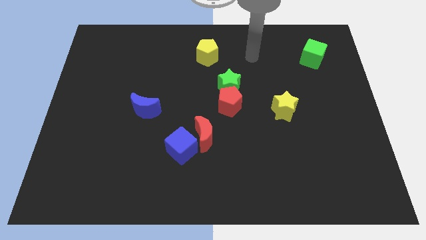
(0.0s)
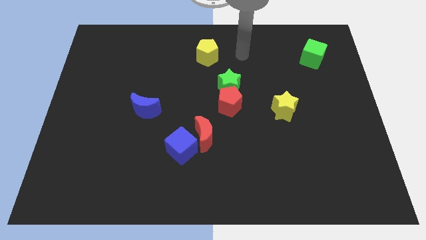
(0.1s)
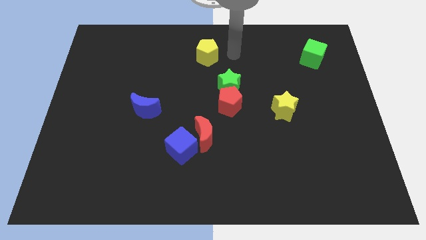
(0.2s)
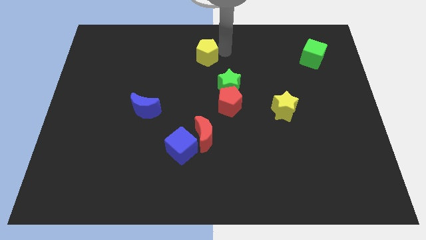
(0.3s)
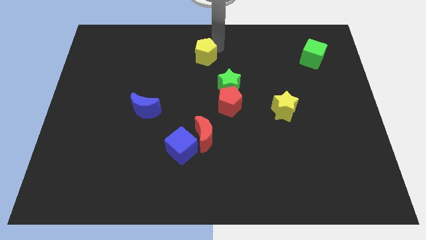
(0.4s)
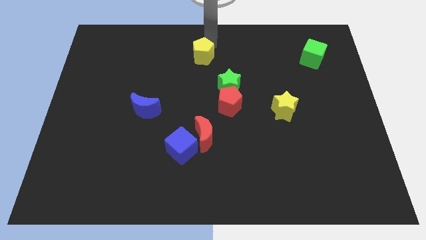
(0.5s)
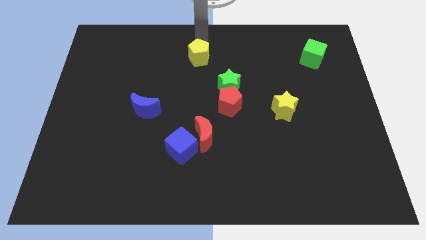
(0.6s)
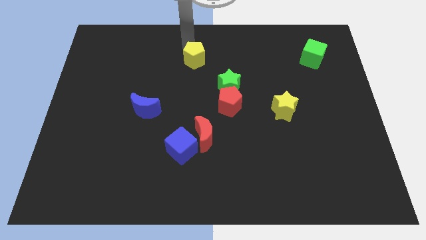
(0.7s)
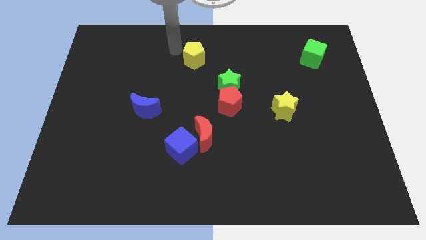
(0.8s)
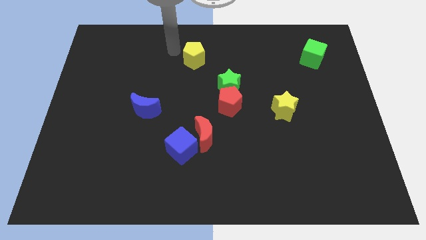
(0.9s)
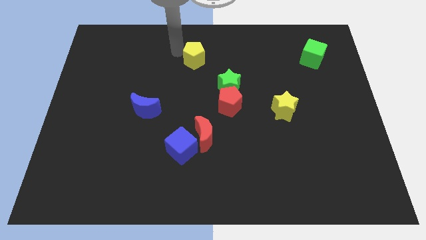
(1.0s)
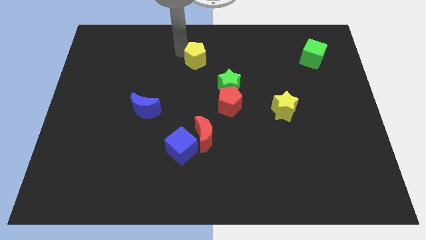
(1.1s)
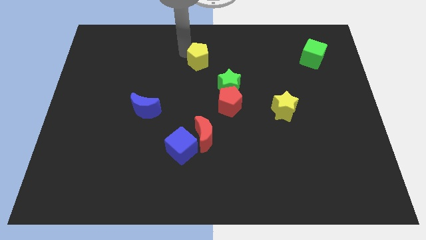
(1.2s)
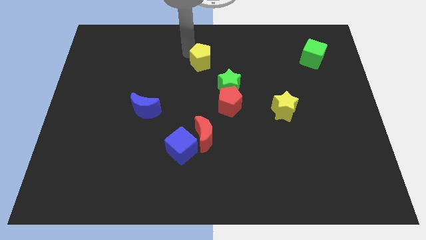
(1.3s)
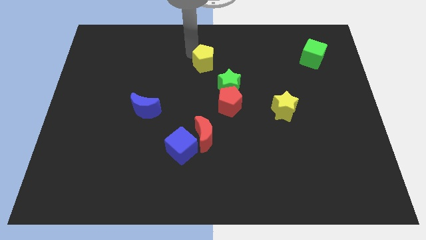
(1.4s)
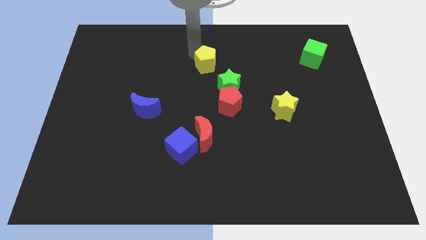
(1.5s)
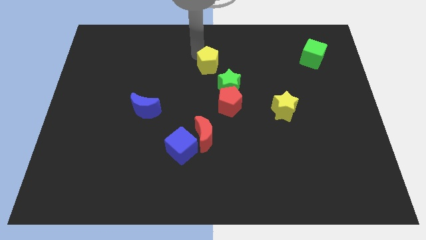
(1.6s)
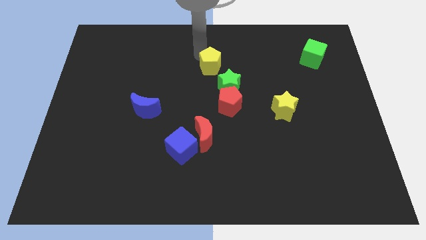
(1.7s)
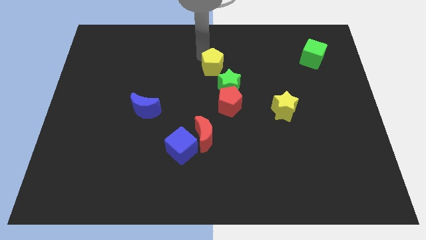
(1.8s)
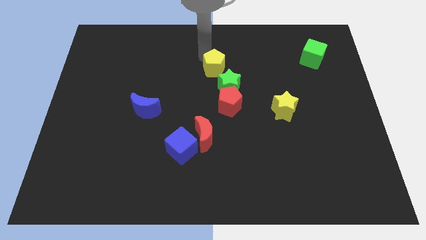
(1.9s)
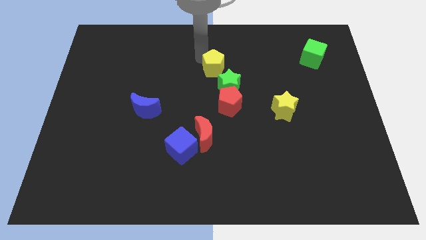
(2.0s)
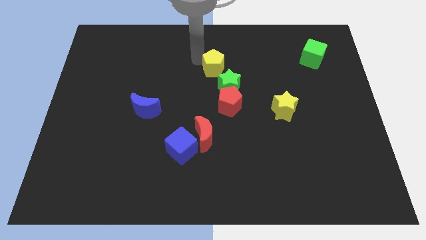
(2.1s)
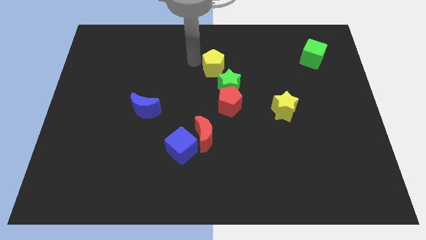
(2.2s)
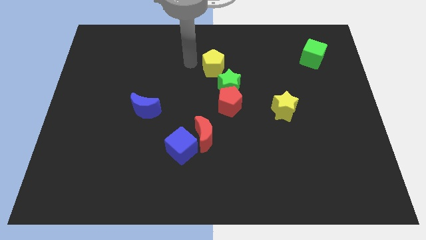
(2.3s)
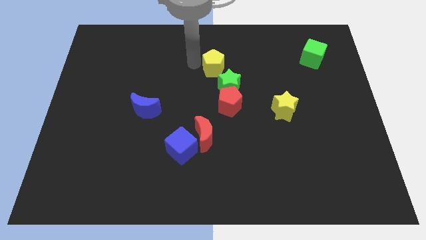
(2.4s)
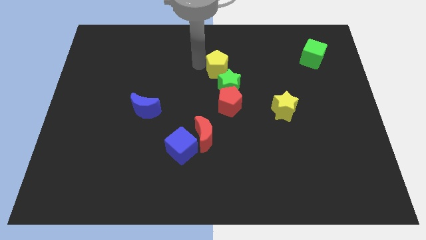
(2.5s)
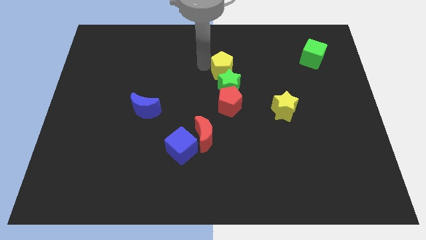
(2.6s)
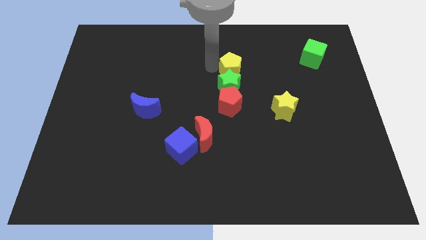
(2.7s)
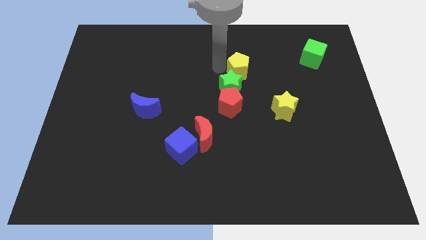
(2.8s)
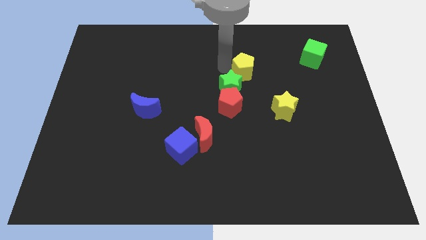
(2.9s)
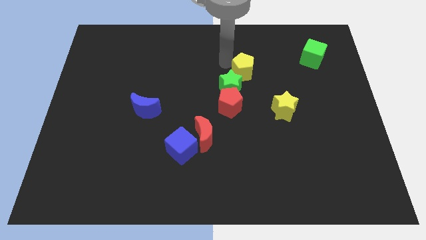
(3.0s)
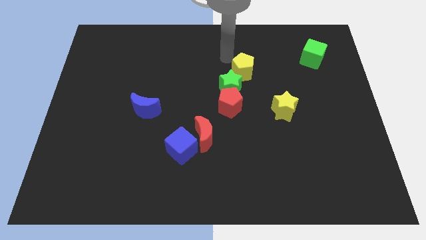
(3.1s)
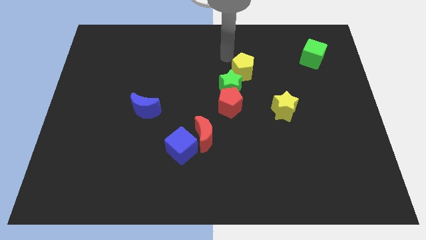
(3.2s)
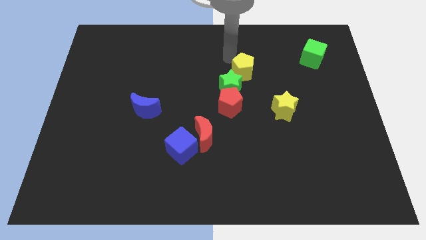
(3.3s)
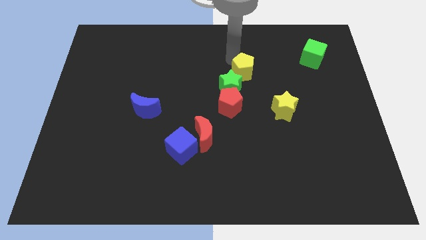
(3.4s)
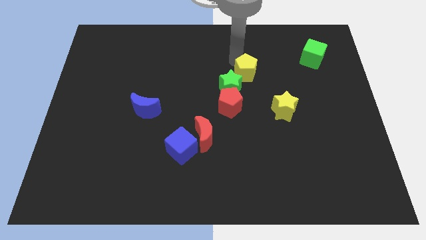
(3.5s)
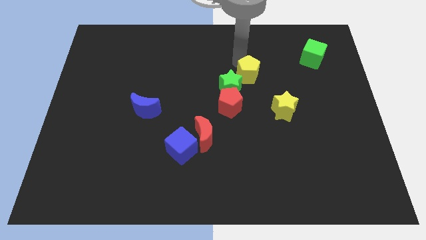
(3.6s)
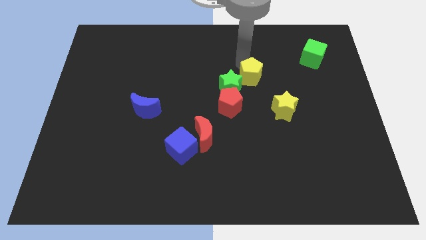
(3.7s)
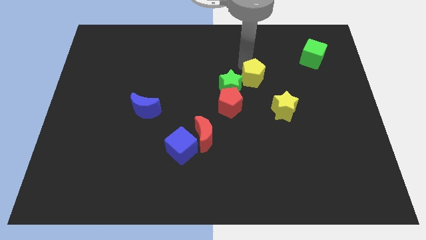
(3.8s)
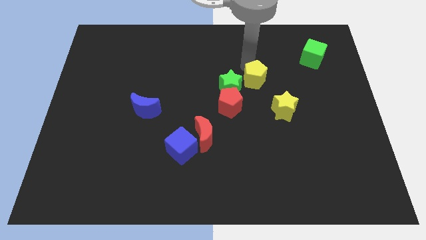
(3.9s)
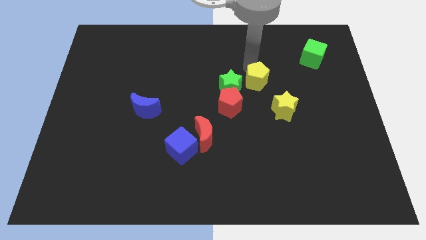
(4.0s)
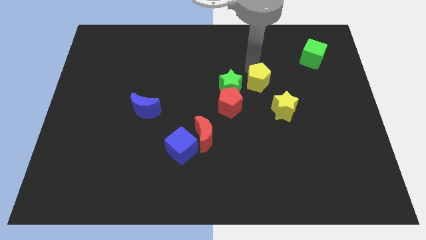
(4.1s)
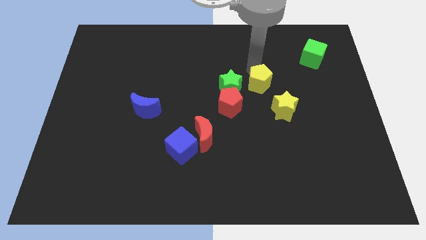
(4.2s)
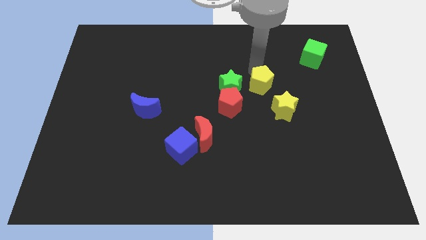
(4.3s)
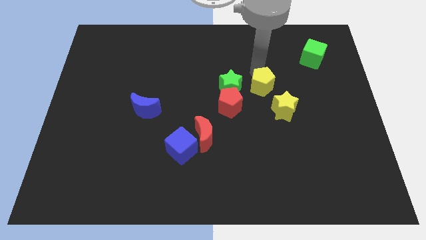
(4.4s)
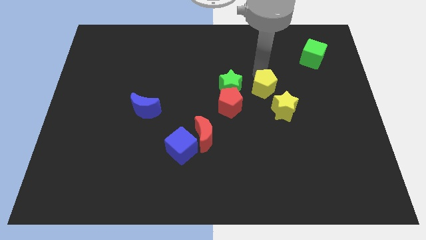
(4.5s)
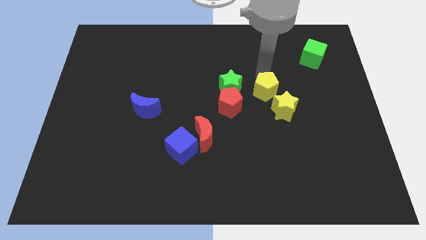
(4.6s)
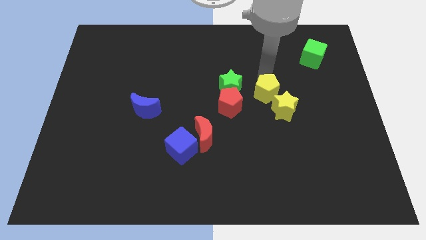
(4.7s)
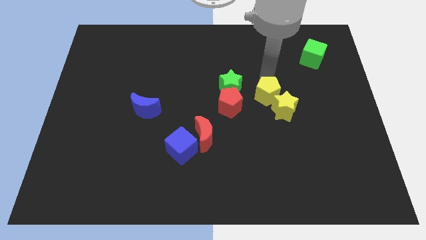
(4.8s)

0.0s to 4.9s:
push the yellow pentagon towards the yellow star

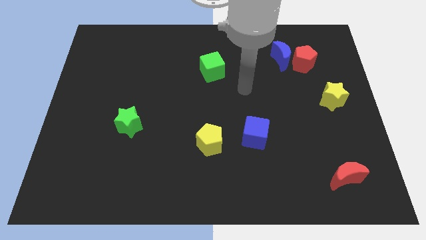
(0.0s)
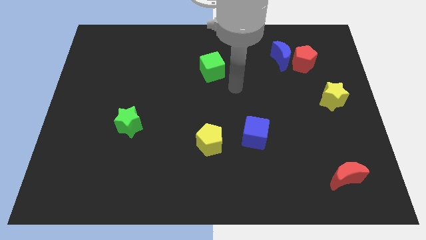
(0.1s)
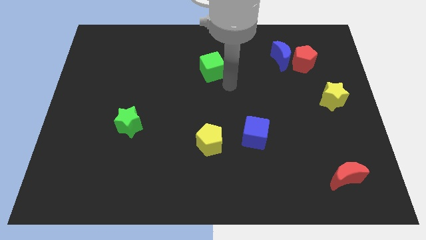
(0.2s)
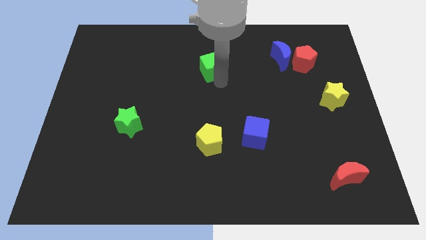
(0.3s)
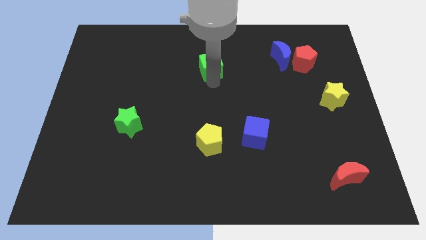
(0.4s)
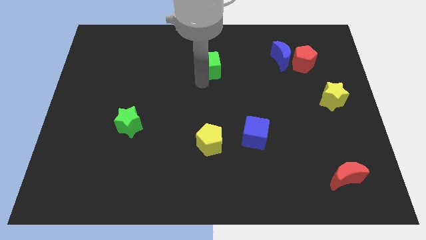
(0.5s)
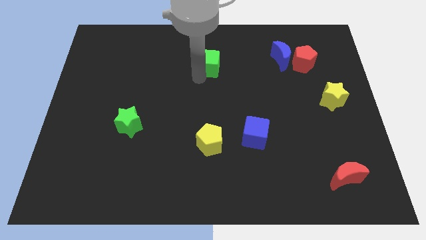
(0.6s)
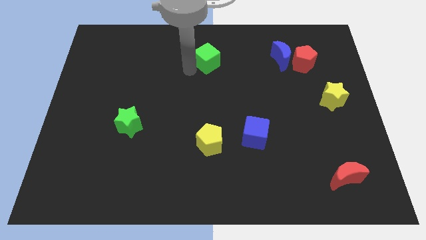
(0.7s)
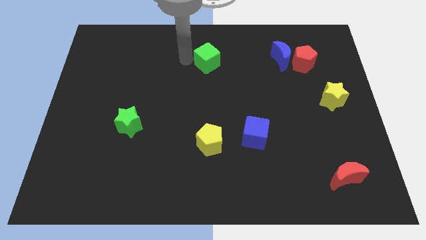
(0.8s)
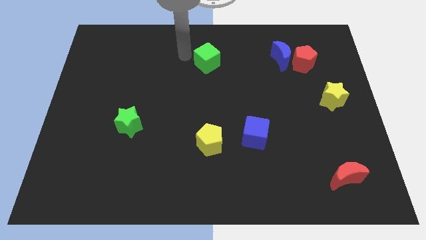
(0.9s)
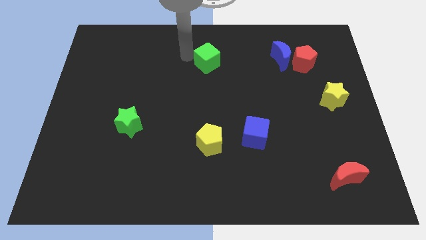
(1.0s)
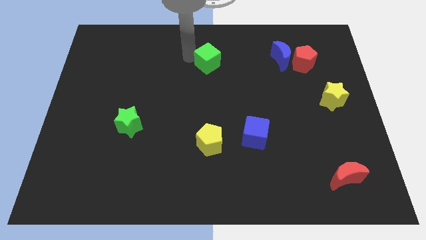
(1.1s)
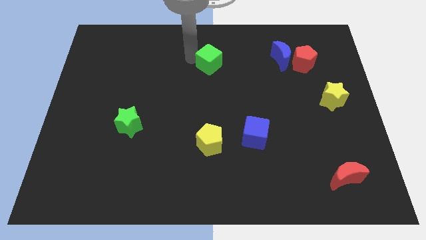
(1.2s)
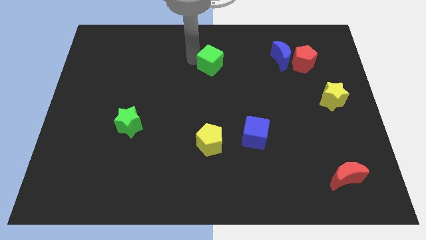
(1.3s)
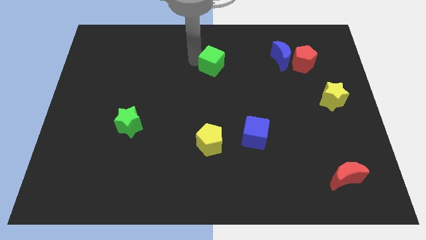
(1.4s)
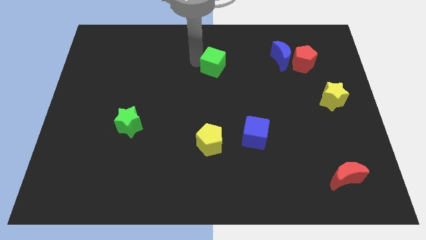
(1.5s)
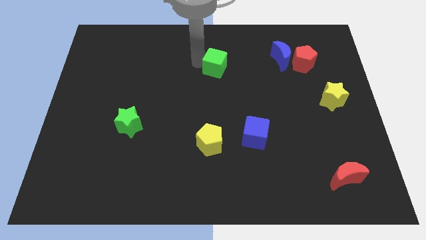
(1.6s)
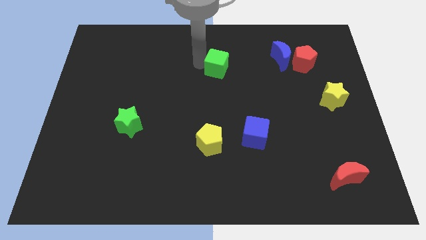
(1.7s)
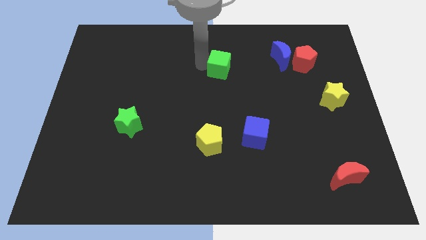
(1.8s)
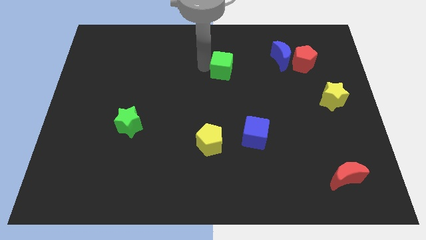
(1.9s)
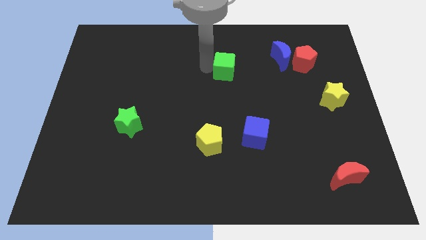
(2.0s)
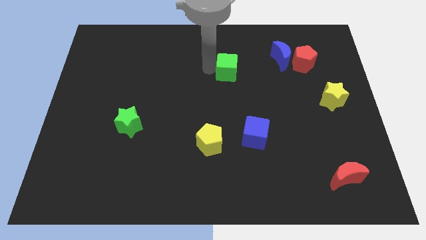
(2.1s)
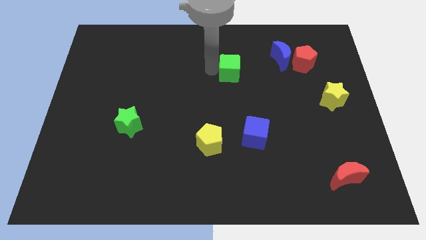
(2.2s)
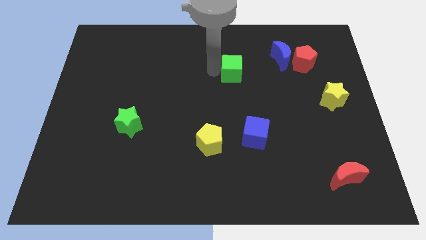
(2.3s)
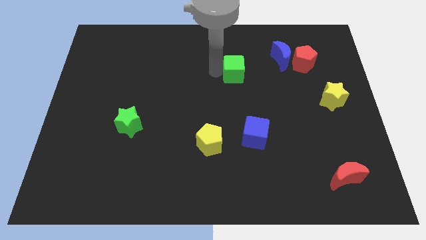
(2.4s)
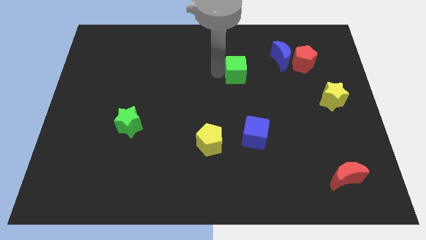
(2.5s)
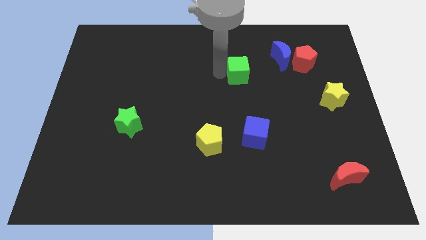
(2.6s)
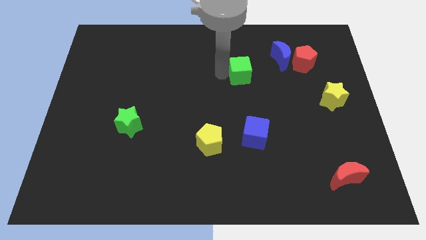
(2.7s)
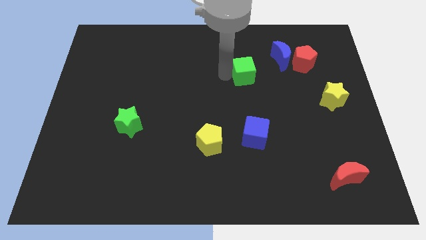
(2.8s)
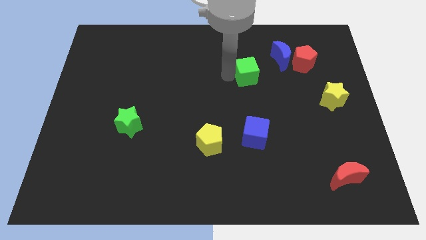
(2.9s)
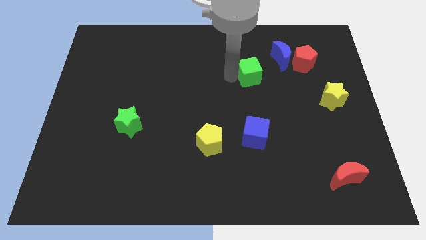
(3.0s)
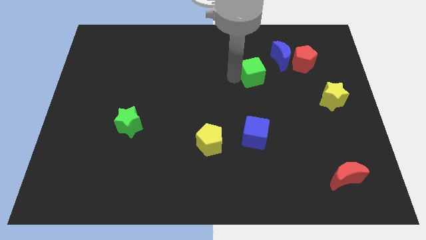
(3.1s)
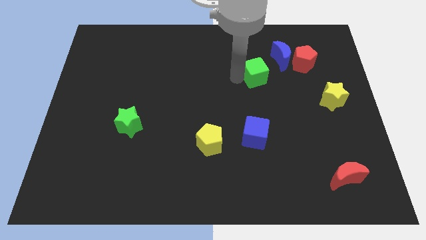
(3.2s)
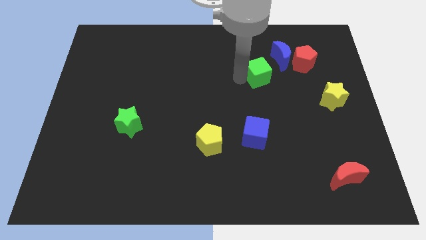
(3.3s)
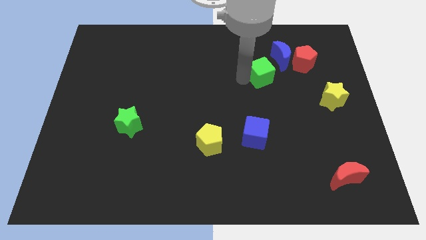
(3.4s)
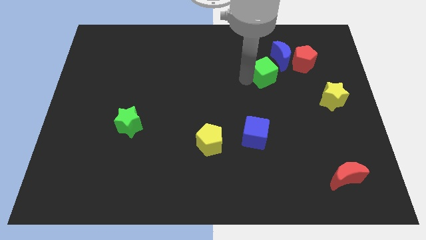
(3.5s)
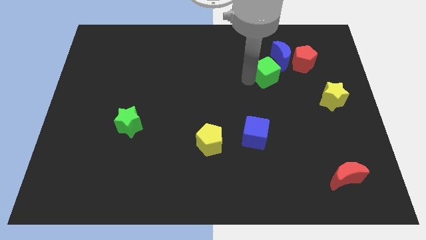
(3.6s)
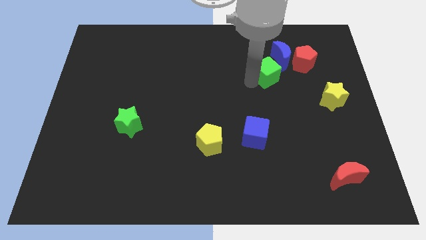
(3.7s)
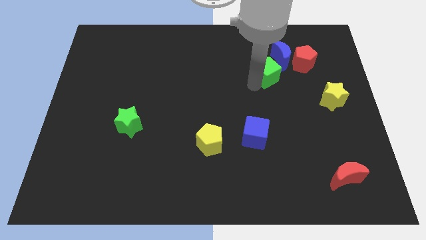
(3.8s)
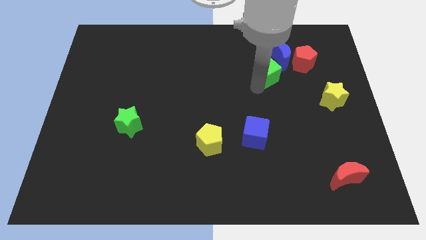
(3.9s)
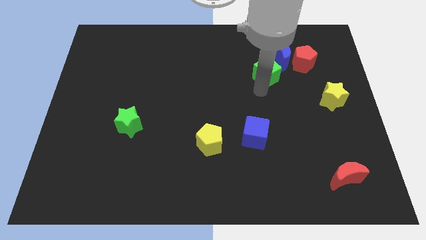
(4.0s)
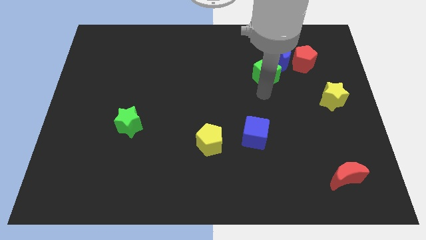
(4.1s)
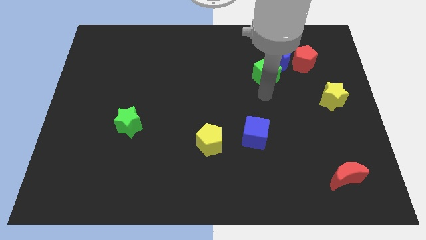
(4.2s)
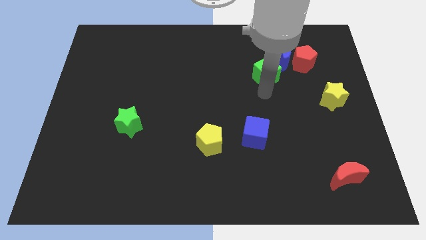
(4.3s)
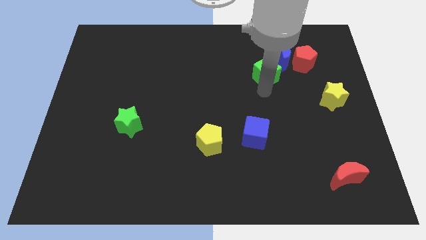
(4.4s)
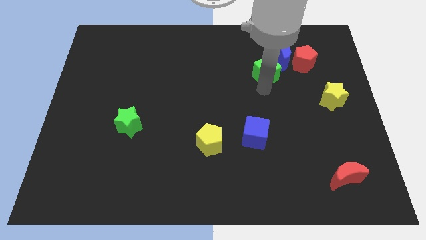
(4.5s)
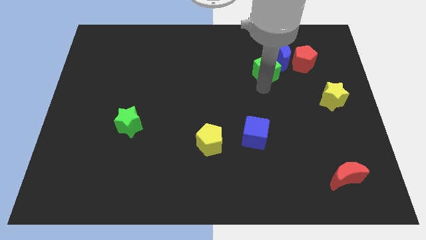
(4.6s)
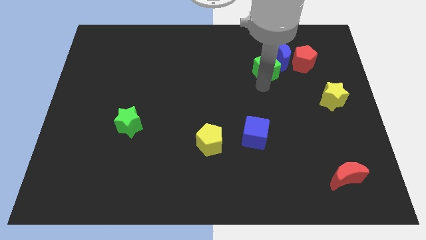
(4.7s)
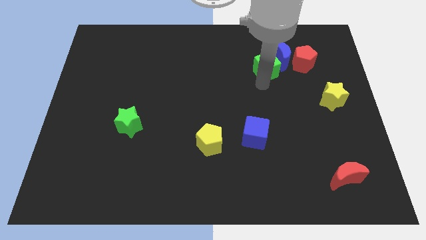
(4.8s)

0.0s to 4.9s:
push the green cube towards the blue moon
